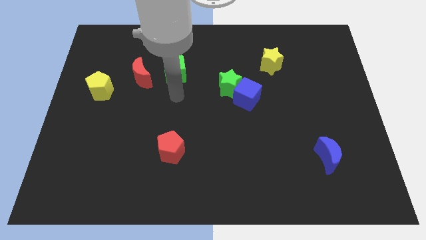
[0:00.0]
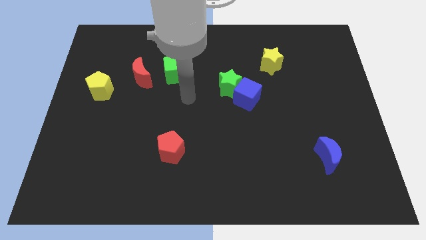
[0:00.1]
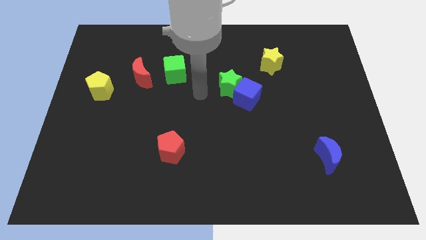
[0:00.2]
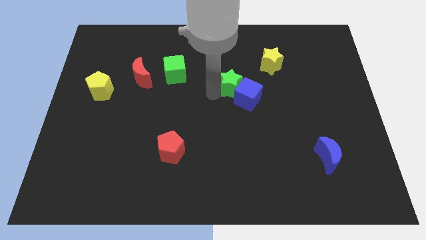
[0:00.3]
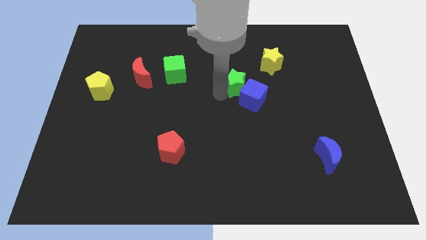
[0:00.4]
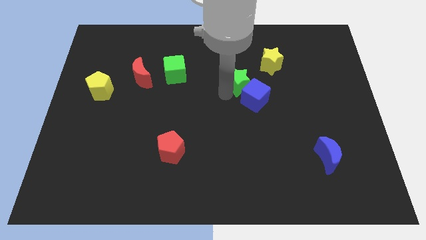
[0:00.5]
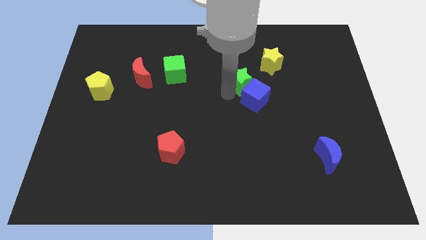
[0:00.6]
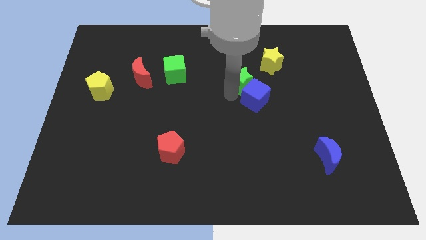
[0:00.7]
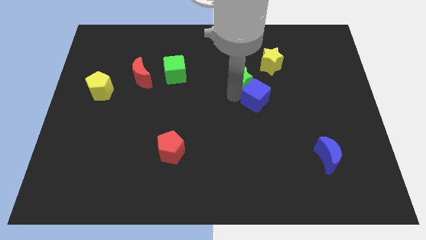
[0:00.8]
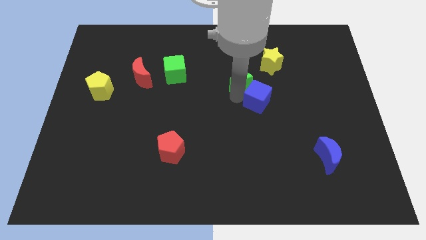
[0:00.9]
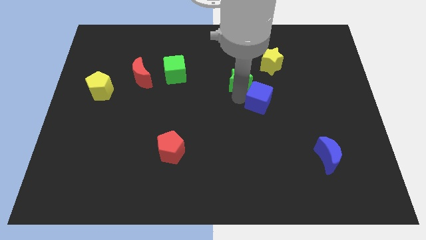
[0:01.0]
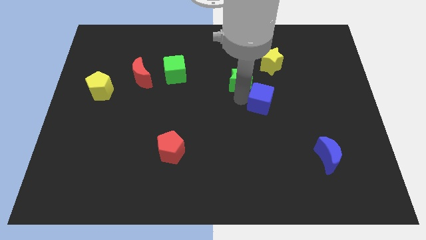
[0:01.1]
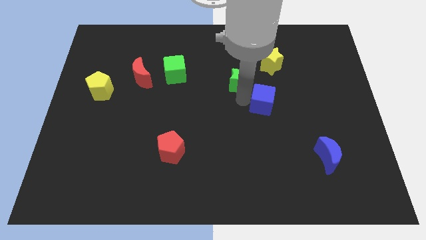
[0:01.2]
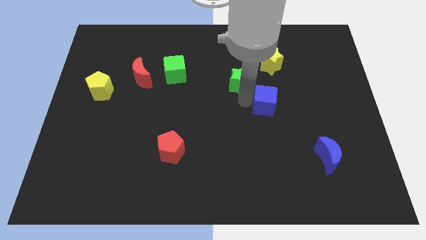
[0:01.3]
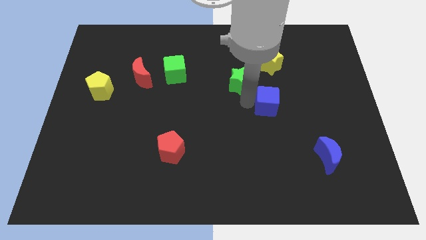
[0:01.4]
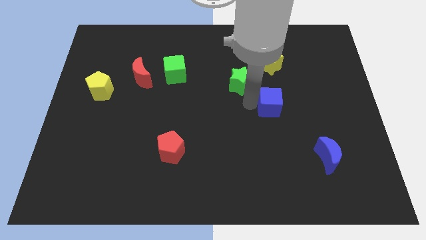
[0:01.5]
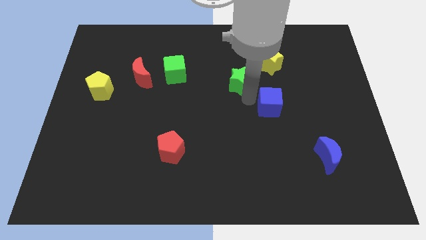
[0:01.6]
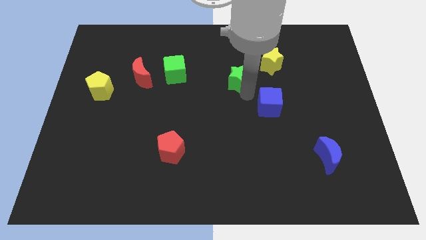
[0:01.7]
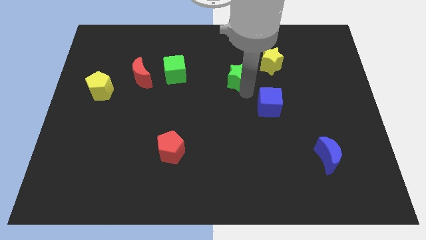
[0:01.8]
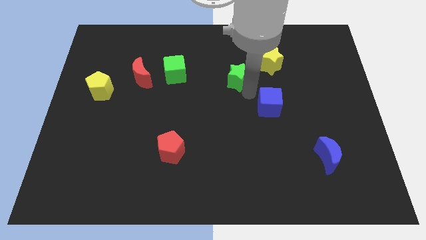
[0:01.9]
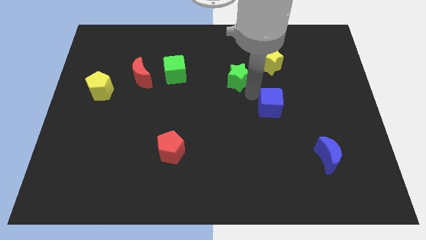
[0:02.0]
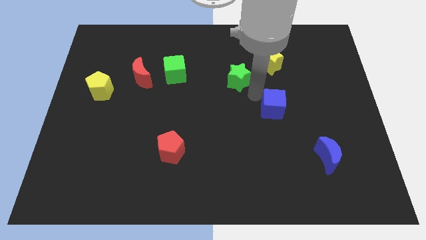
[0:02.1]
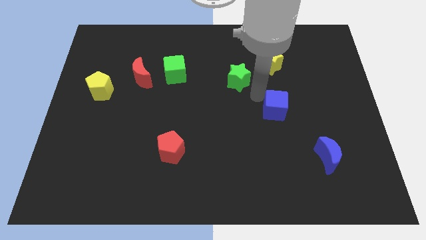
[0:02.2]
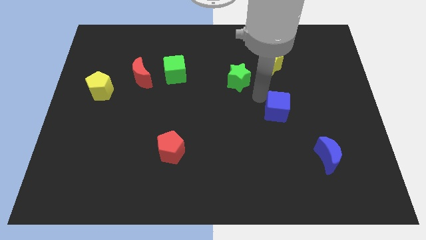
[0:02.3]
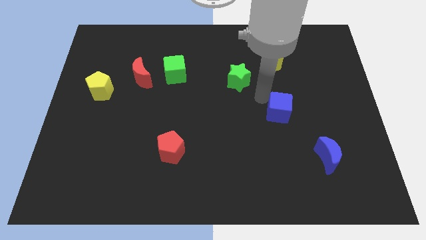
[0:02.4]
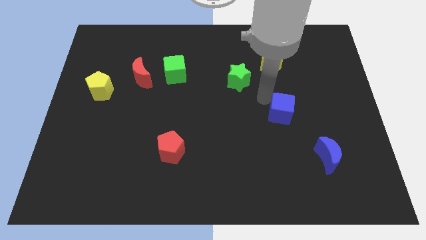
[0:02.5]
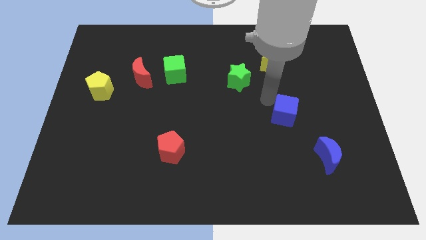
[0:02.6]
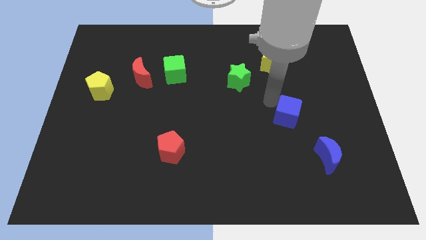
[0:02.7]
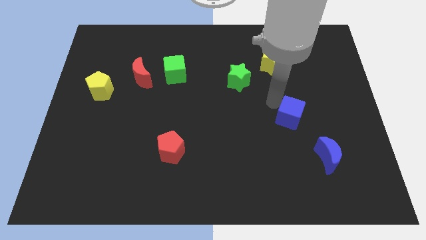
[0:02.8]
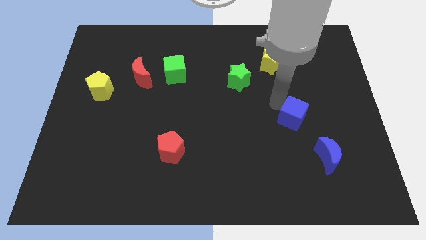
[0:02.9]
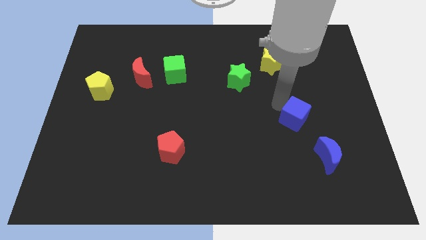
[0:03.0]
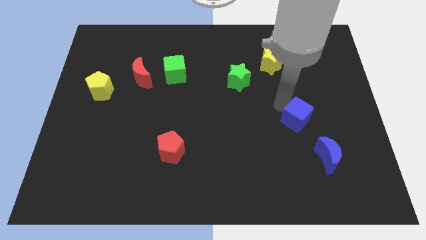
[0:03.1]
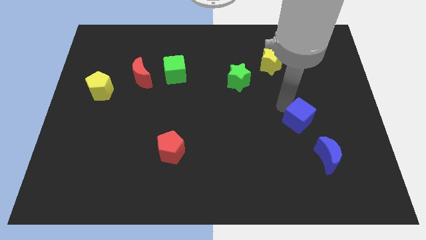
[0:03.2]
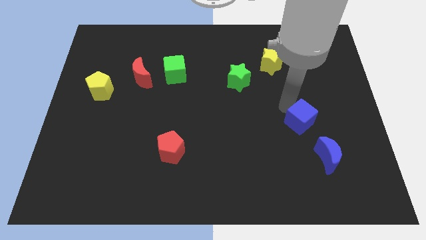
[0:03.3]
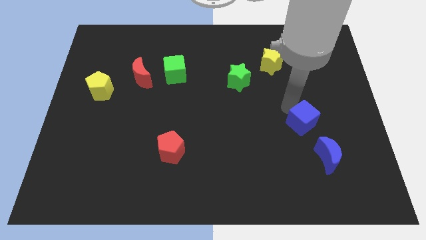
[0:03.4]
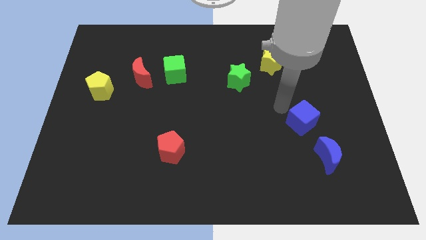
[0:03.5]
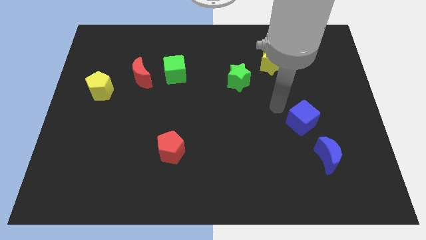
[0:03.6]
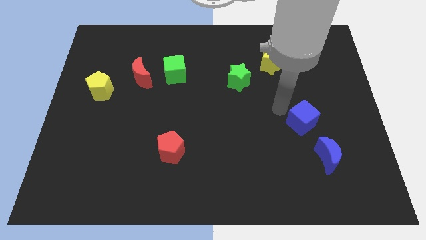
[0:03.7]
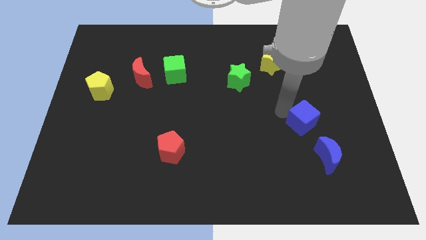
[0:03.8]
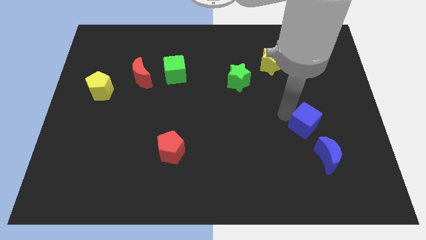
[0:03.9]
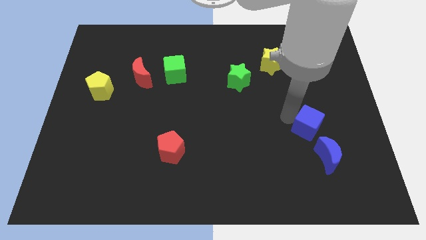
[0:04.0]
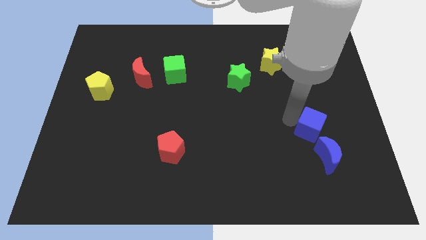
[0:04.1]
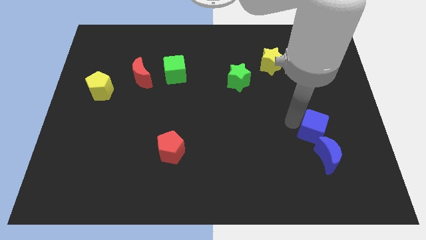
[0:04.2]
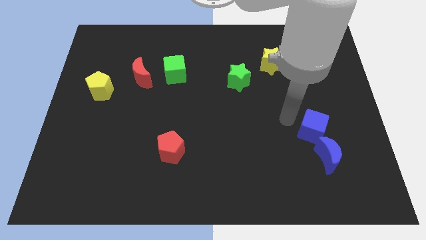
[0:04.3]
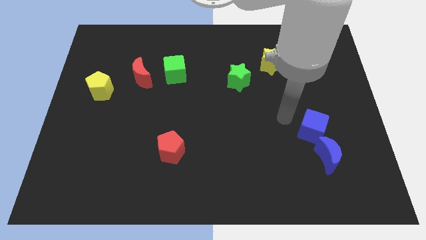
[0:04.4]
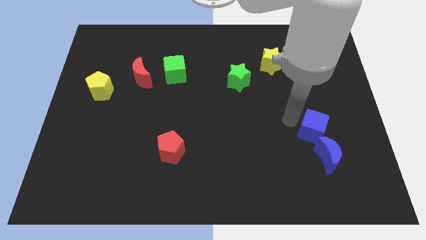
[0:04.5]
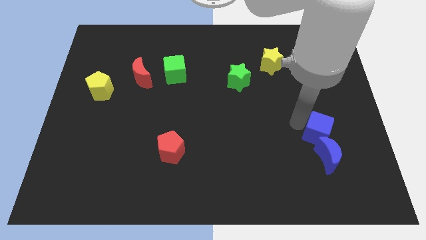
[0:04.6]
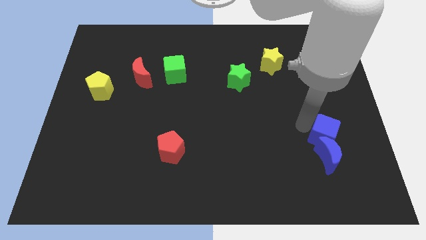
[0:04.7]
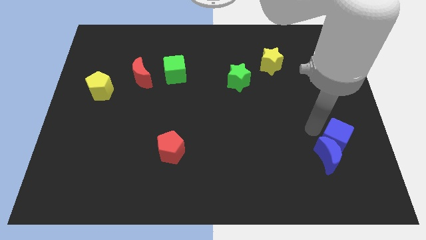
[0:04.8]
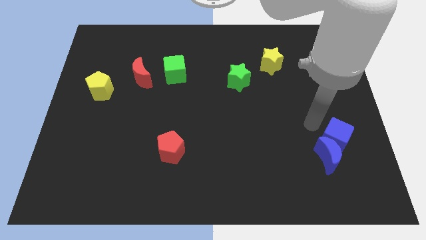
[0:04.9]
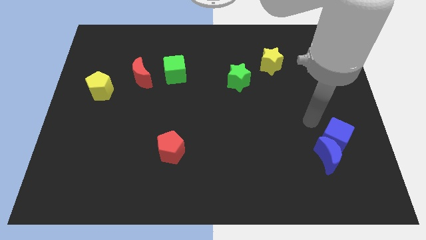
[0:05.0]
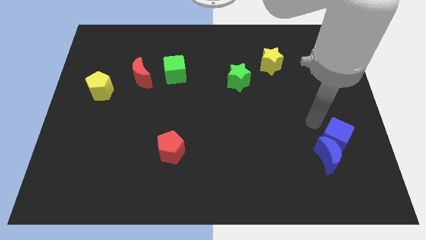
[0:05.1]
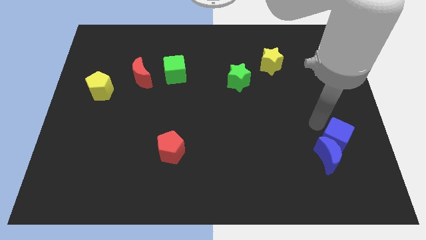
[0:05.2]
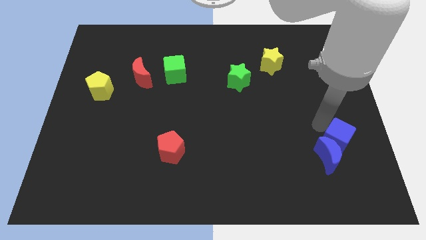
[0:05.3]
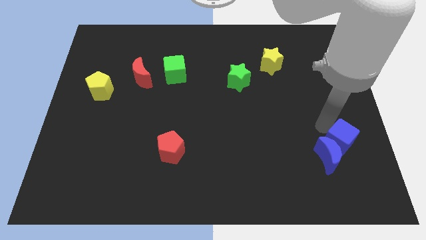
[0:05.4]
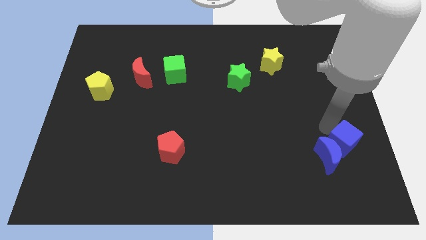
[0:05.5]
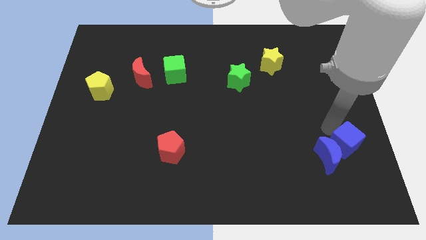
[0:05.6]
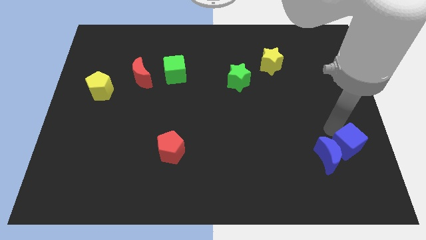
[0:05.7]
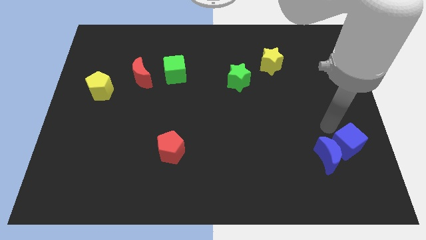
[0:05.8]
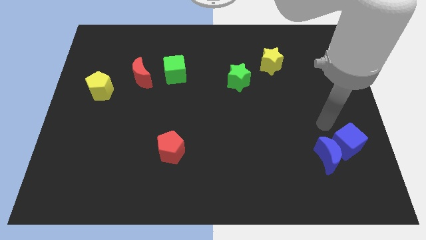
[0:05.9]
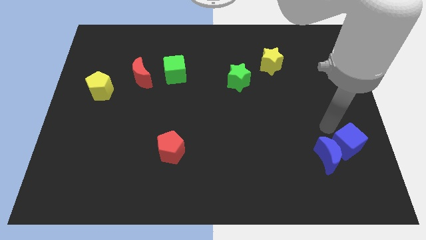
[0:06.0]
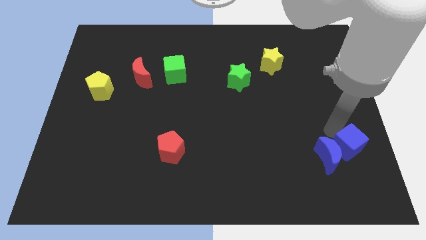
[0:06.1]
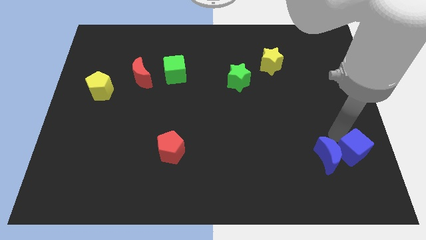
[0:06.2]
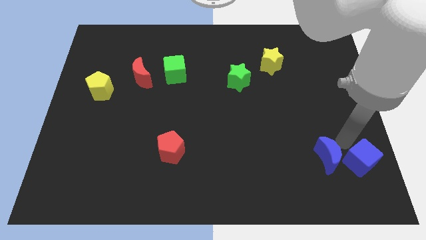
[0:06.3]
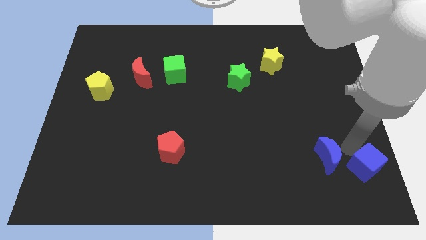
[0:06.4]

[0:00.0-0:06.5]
put the blue cube to the bottom right corner
